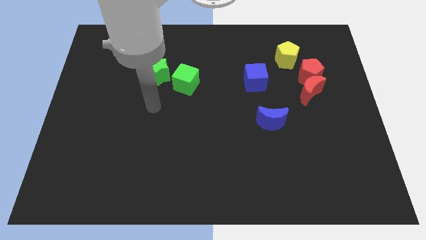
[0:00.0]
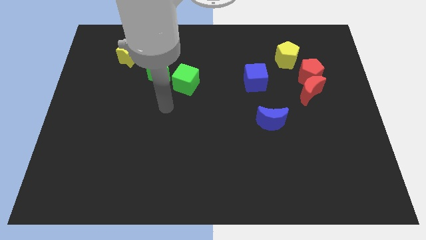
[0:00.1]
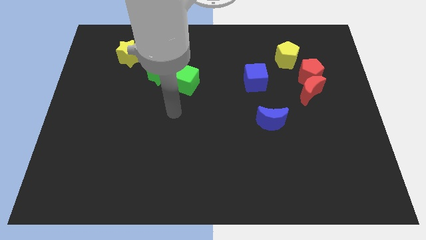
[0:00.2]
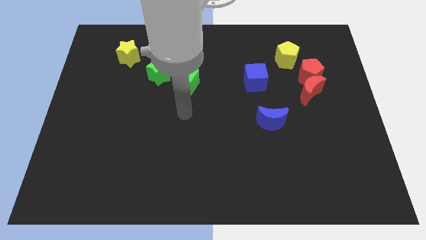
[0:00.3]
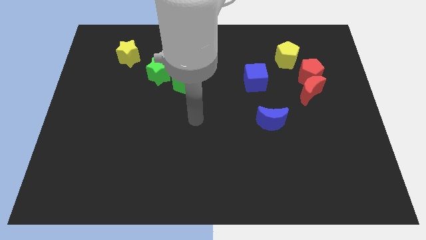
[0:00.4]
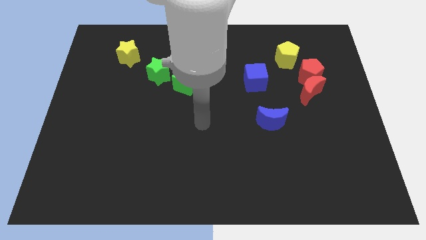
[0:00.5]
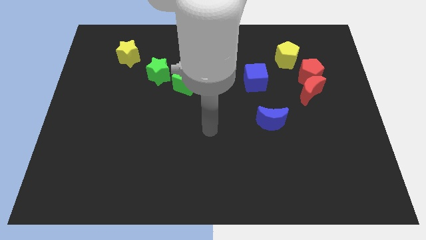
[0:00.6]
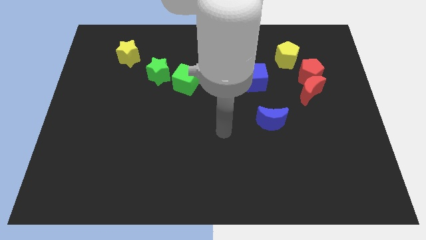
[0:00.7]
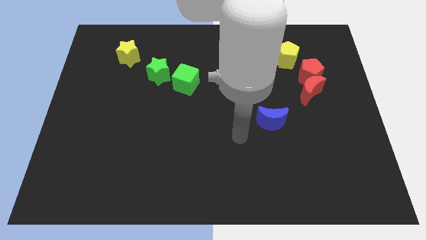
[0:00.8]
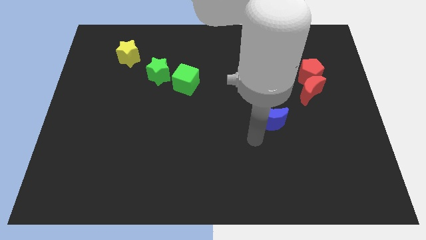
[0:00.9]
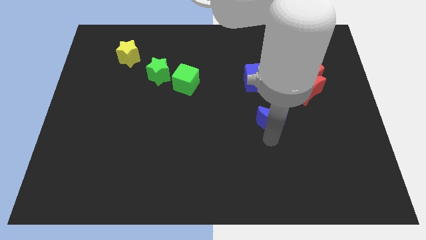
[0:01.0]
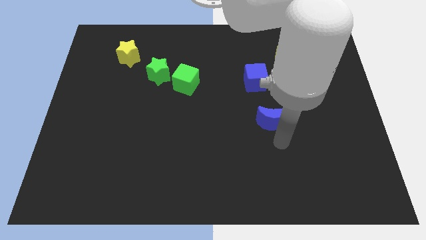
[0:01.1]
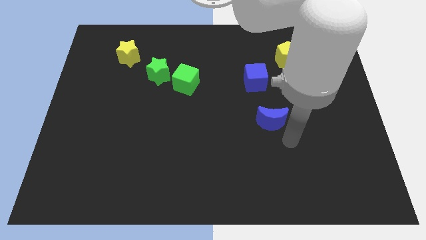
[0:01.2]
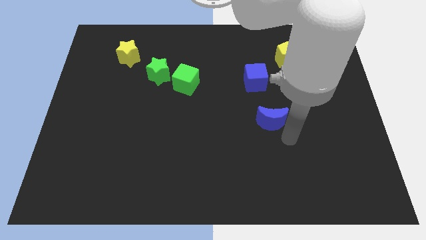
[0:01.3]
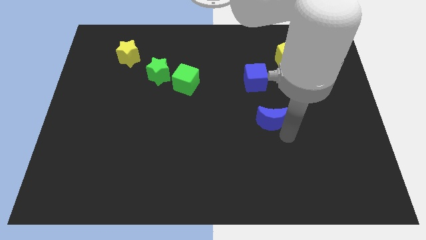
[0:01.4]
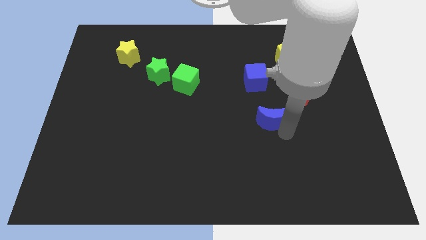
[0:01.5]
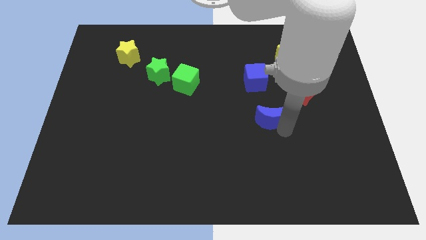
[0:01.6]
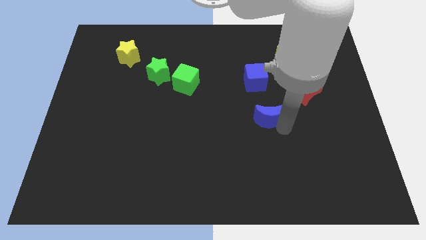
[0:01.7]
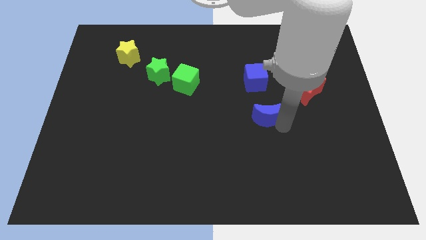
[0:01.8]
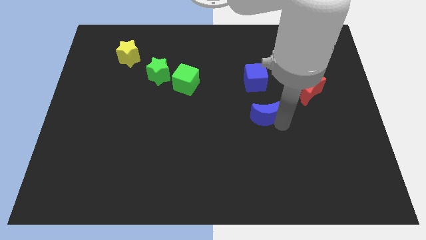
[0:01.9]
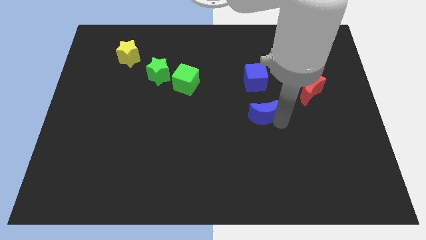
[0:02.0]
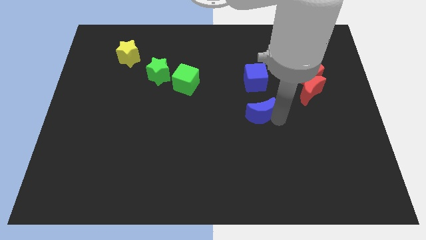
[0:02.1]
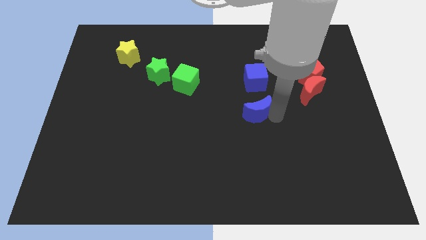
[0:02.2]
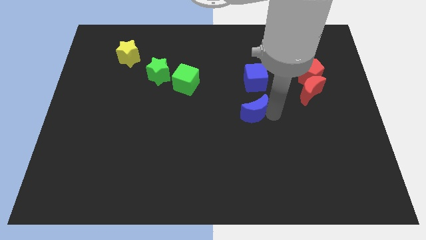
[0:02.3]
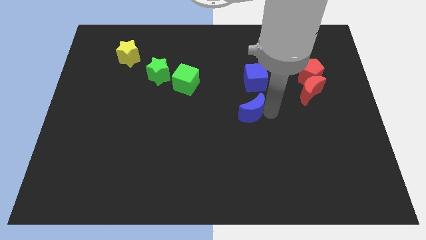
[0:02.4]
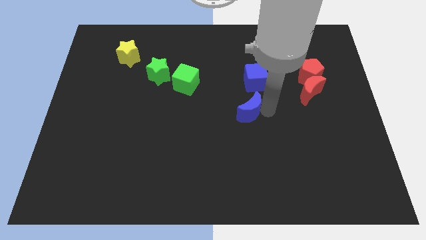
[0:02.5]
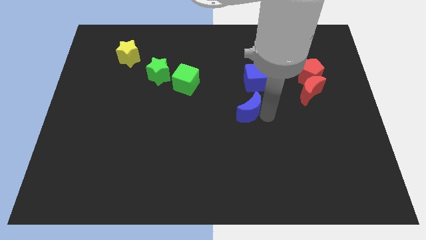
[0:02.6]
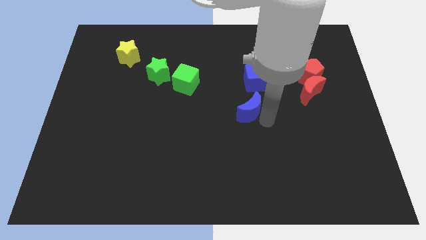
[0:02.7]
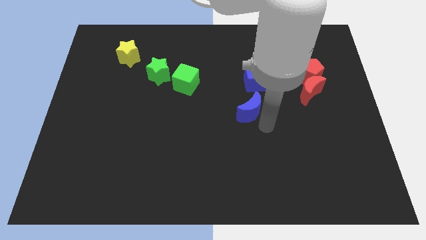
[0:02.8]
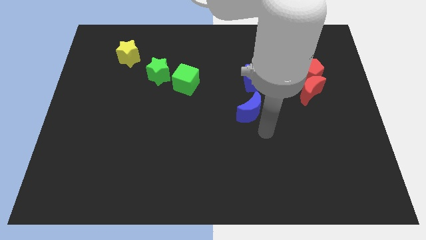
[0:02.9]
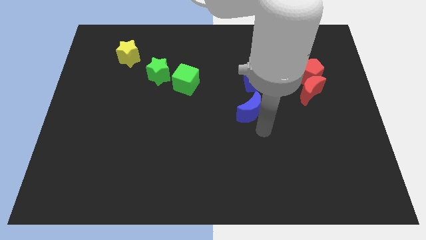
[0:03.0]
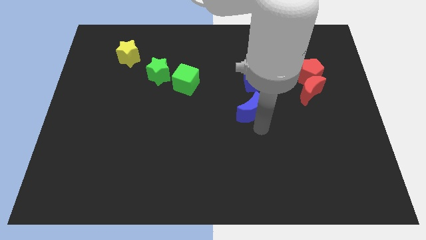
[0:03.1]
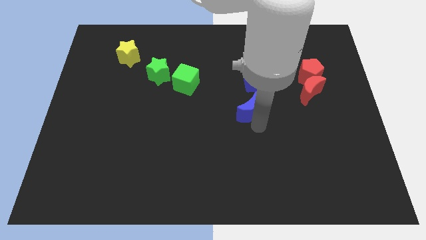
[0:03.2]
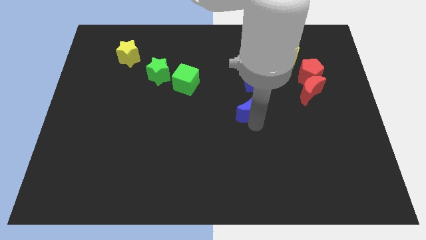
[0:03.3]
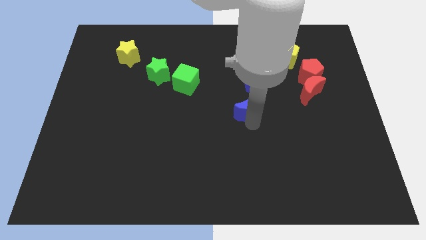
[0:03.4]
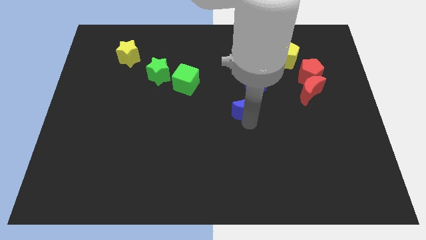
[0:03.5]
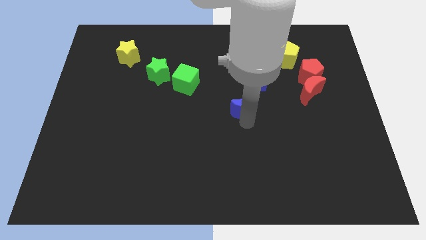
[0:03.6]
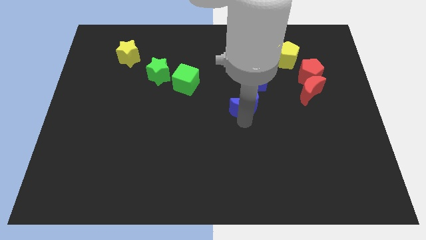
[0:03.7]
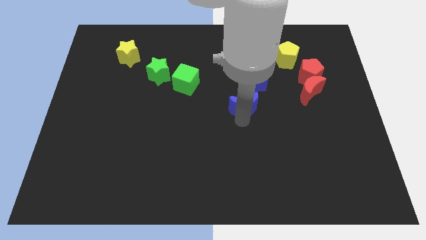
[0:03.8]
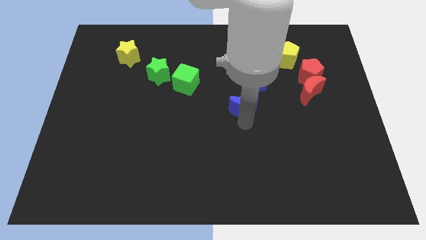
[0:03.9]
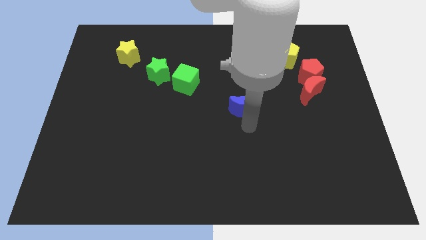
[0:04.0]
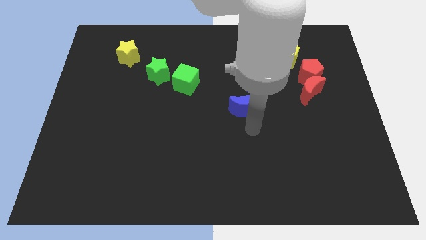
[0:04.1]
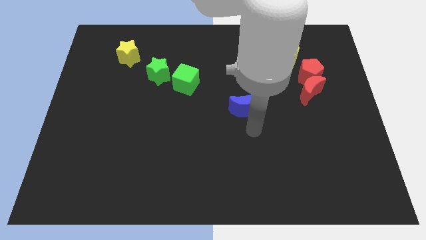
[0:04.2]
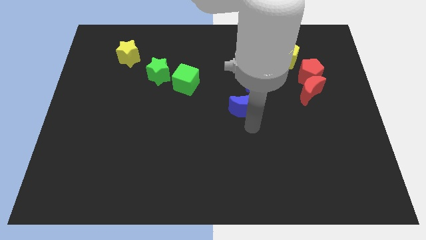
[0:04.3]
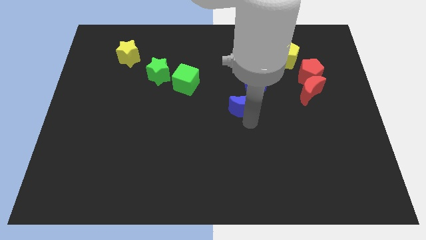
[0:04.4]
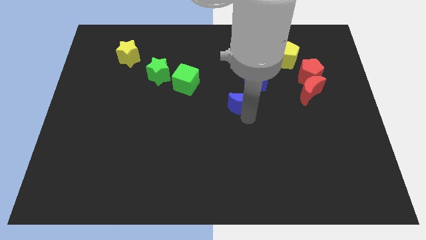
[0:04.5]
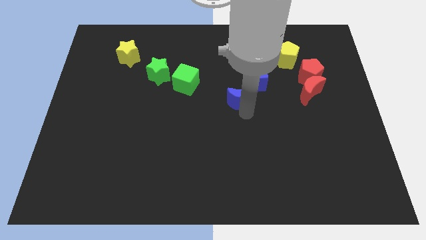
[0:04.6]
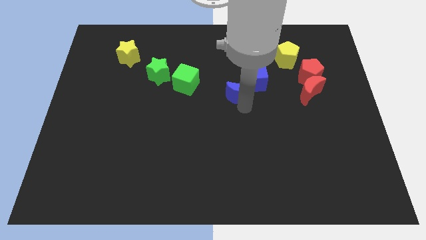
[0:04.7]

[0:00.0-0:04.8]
move the blue moon right of the green cube

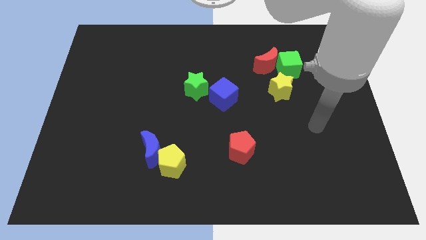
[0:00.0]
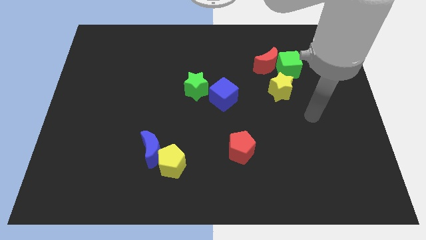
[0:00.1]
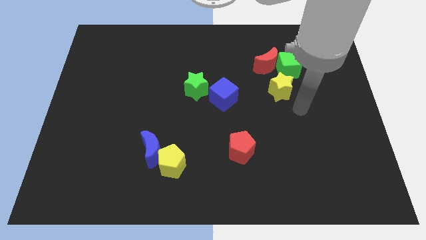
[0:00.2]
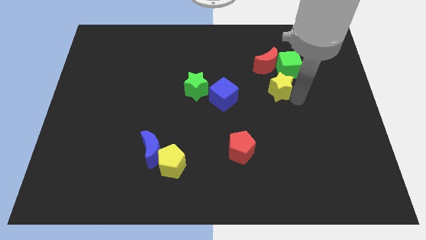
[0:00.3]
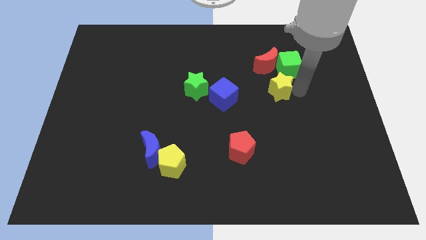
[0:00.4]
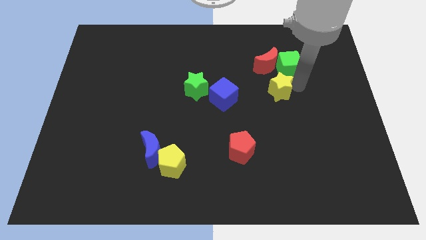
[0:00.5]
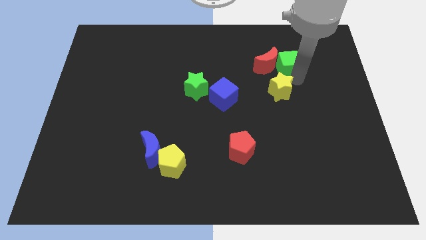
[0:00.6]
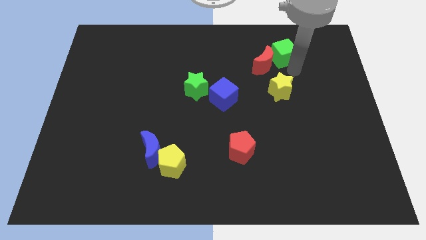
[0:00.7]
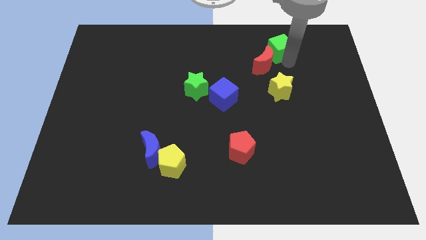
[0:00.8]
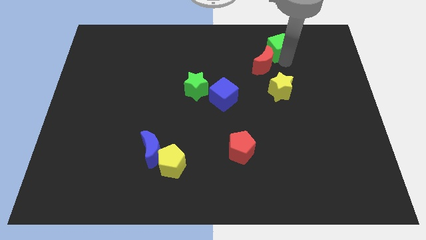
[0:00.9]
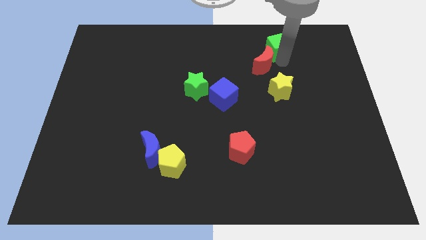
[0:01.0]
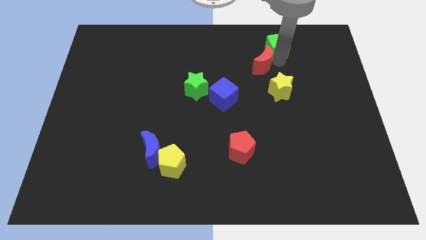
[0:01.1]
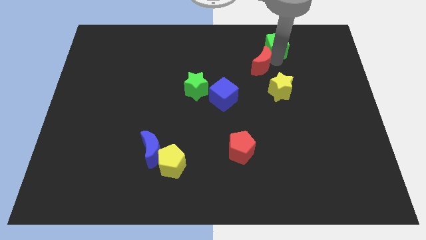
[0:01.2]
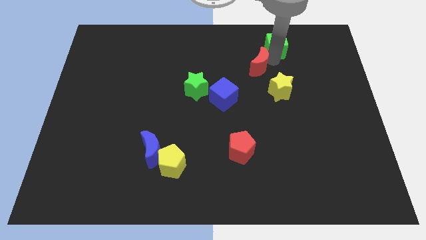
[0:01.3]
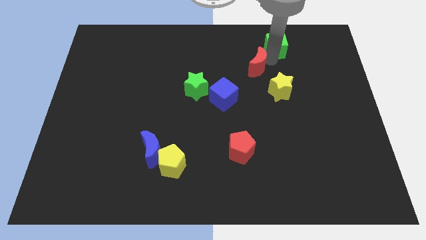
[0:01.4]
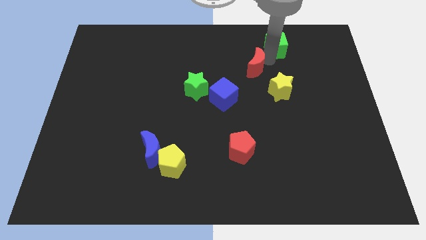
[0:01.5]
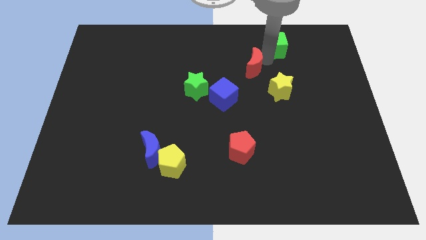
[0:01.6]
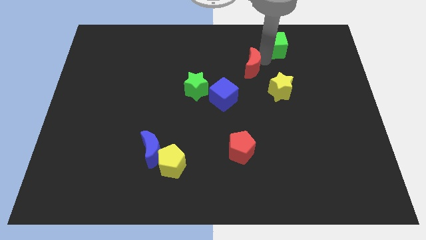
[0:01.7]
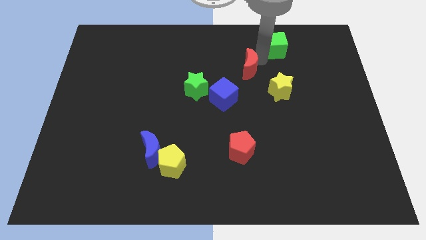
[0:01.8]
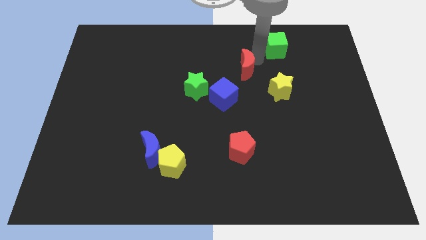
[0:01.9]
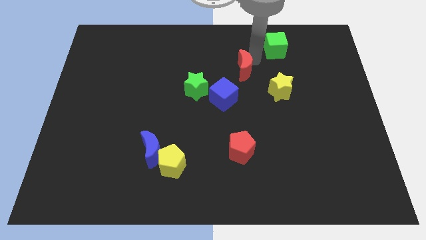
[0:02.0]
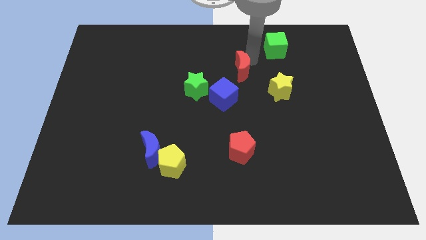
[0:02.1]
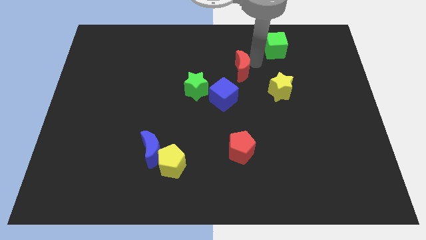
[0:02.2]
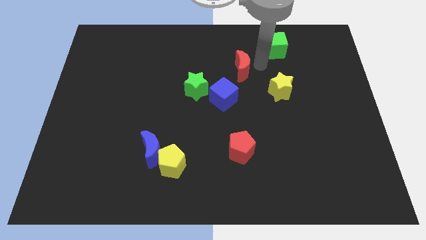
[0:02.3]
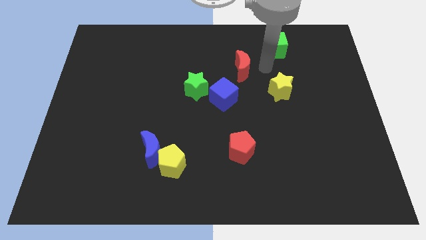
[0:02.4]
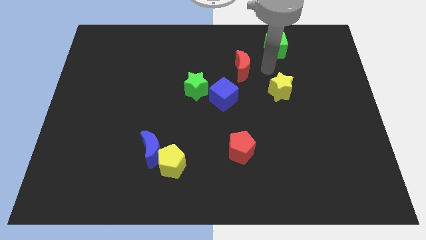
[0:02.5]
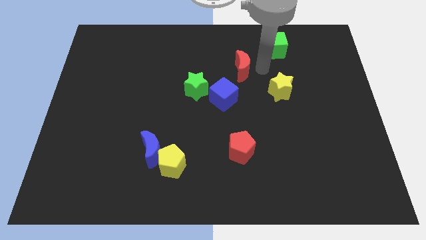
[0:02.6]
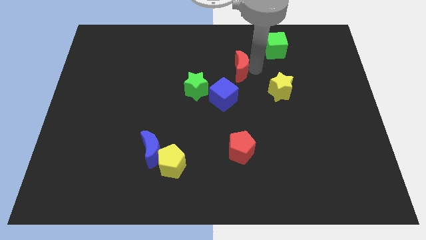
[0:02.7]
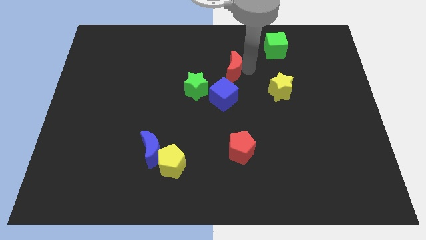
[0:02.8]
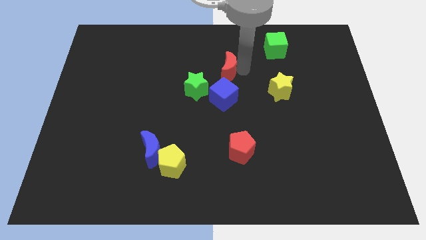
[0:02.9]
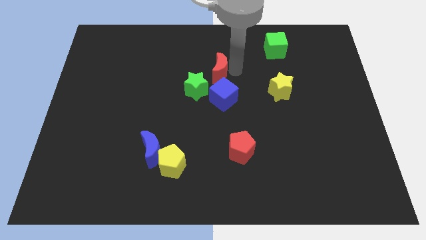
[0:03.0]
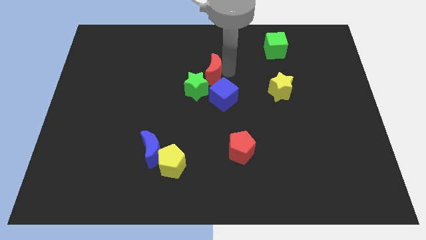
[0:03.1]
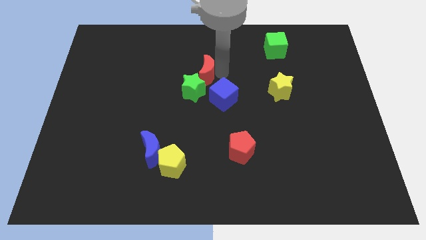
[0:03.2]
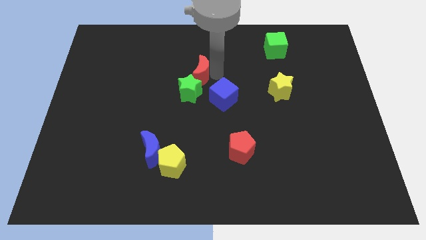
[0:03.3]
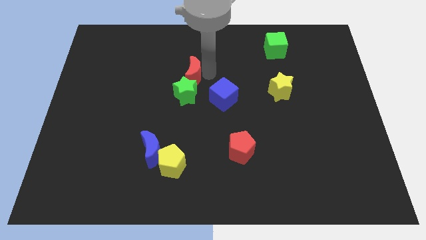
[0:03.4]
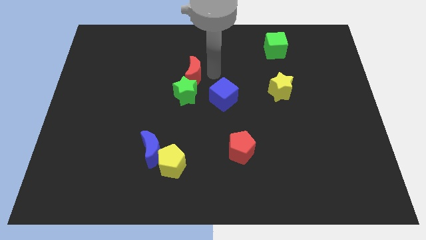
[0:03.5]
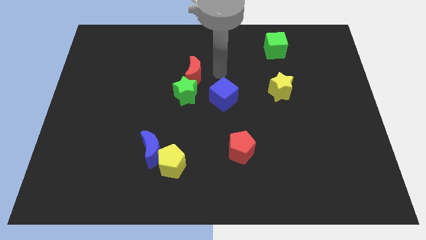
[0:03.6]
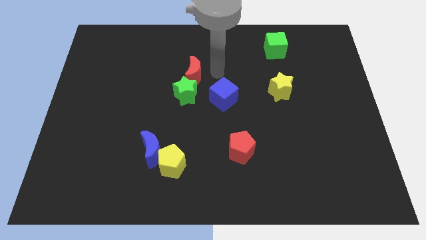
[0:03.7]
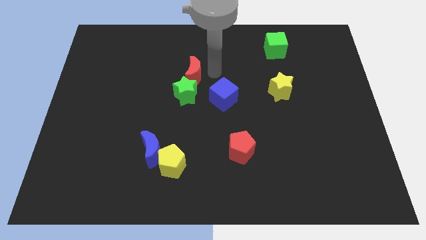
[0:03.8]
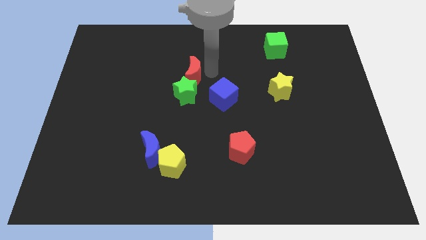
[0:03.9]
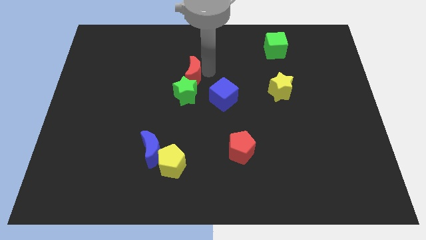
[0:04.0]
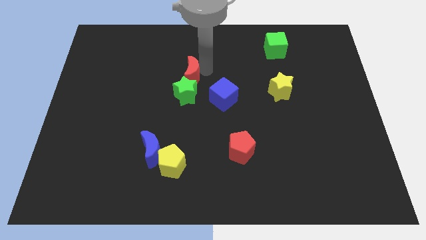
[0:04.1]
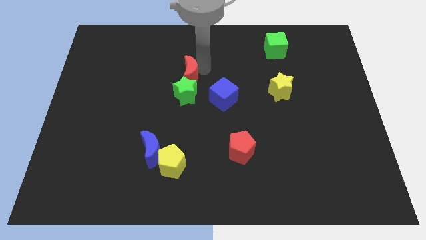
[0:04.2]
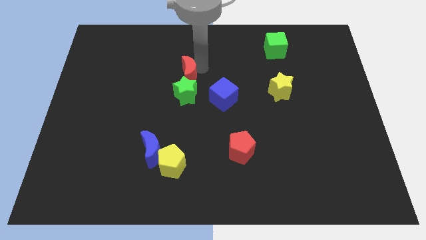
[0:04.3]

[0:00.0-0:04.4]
push the red moon to the top left side of the green star
